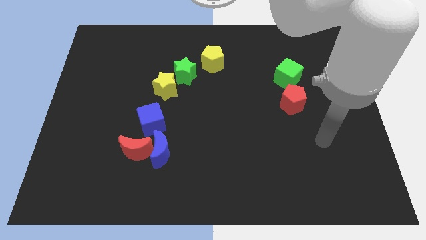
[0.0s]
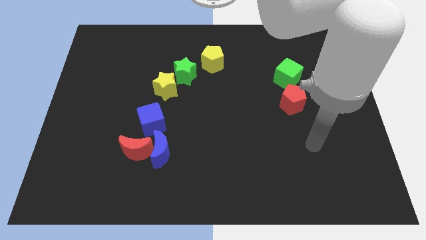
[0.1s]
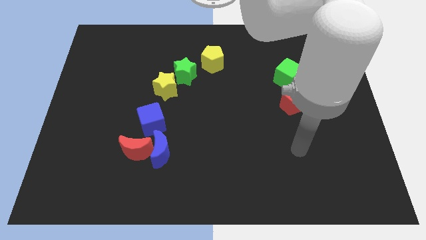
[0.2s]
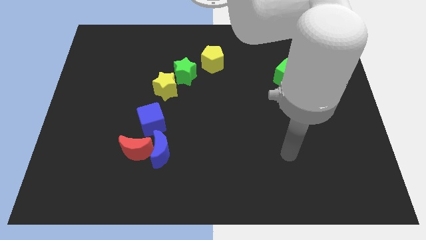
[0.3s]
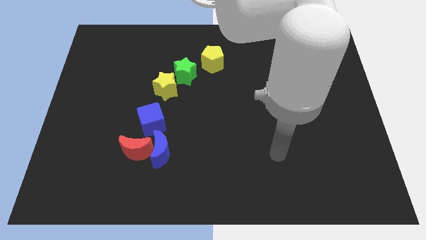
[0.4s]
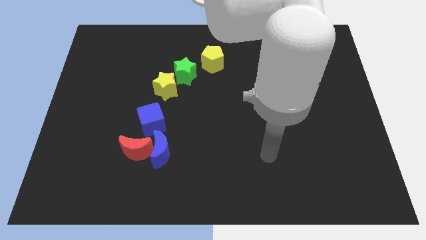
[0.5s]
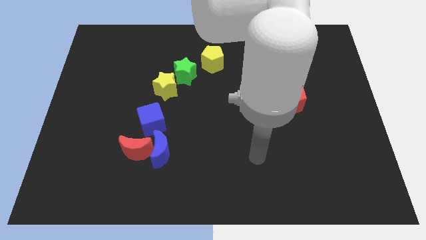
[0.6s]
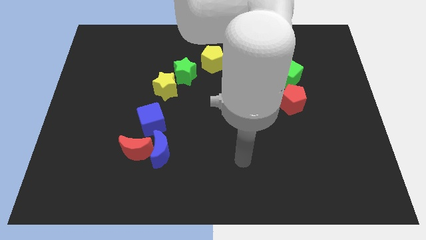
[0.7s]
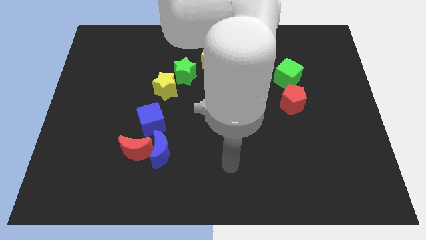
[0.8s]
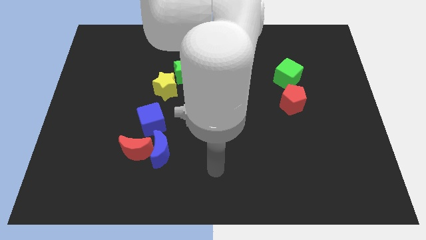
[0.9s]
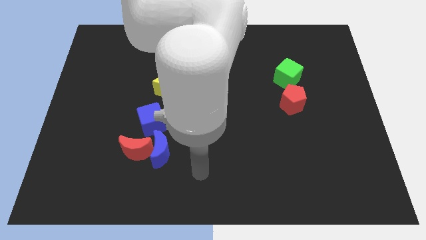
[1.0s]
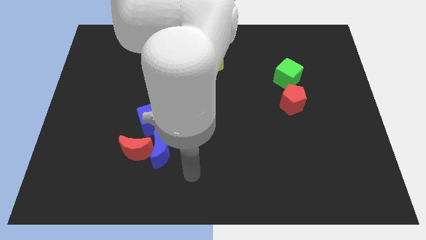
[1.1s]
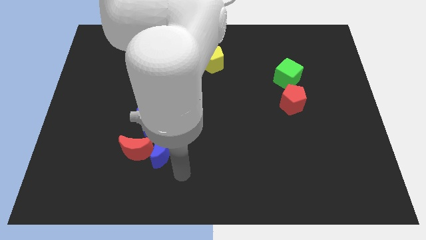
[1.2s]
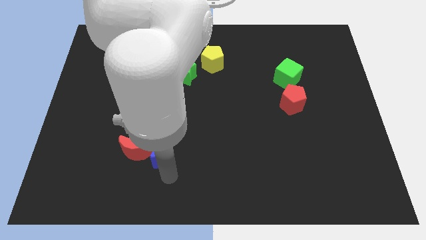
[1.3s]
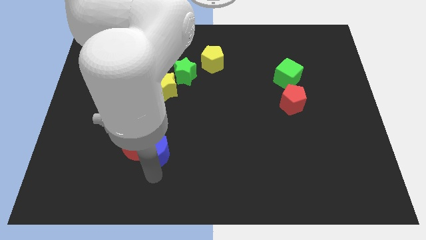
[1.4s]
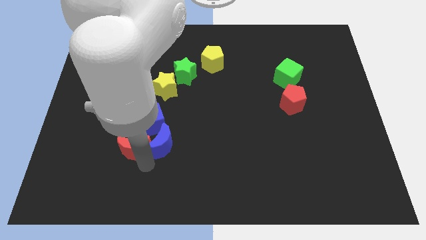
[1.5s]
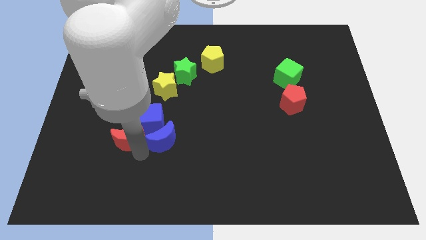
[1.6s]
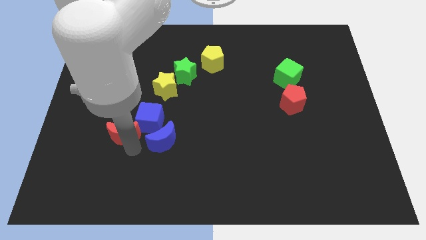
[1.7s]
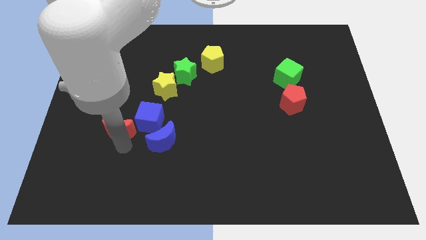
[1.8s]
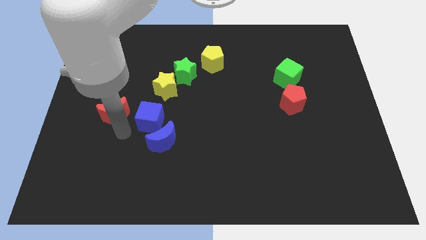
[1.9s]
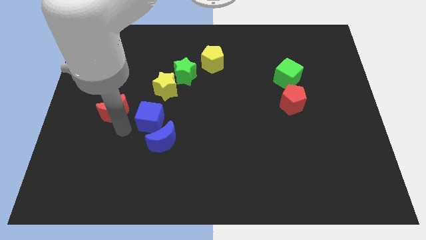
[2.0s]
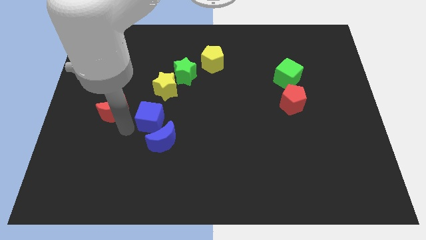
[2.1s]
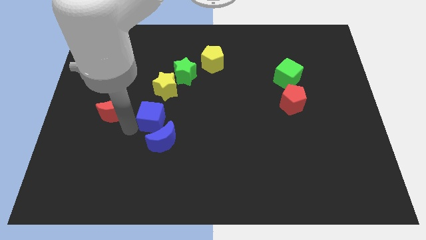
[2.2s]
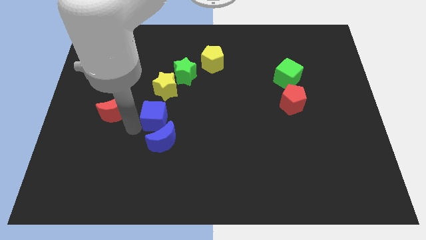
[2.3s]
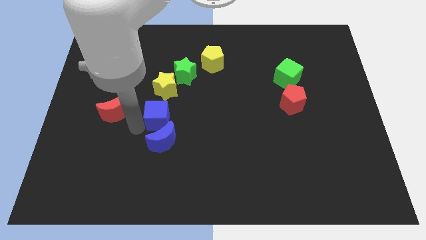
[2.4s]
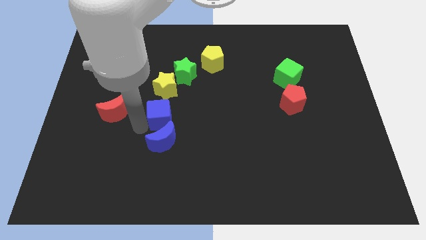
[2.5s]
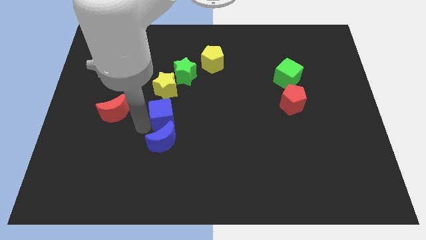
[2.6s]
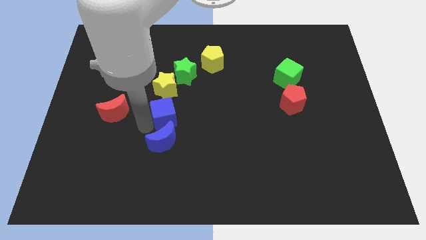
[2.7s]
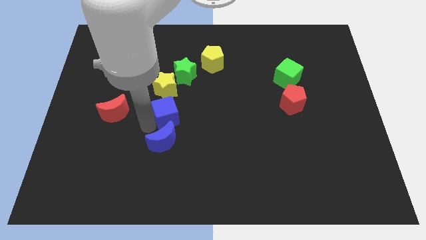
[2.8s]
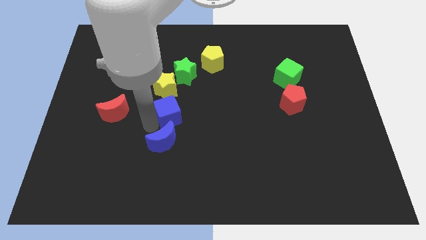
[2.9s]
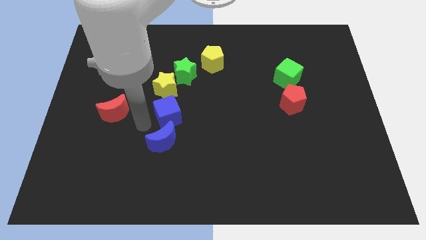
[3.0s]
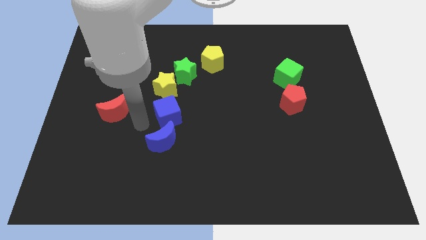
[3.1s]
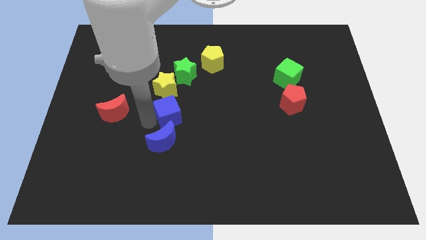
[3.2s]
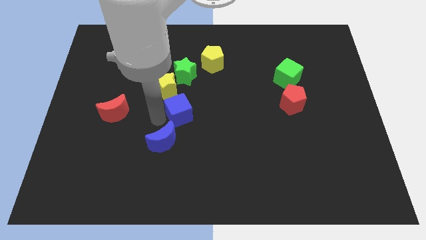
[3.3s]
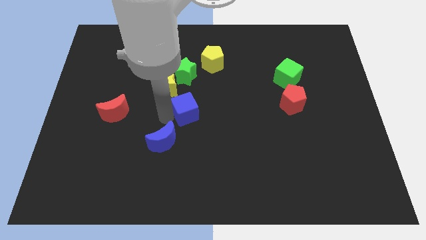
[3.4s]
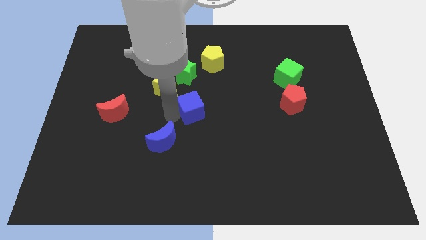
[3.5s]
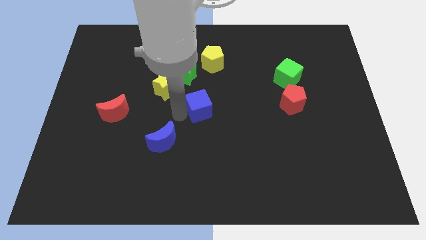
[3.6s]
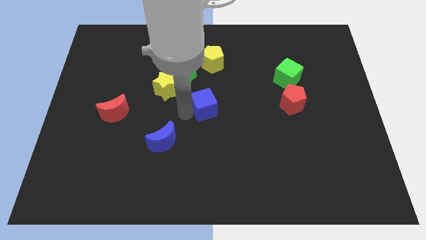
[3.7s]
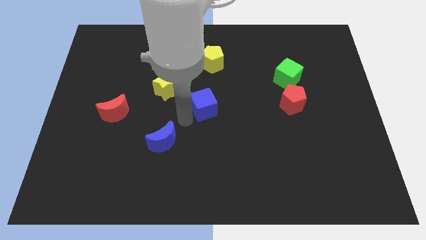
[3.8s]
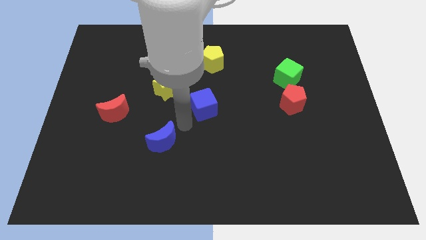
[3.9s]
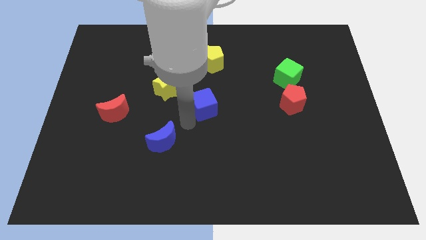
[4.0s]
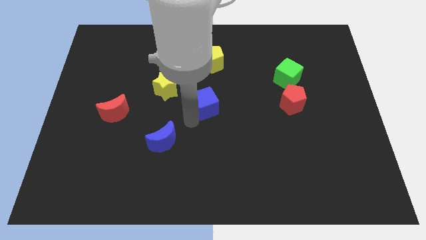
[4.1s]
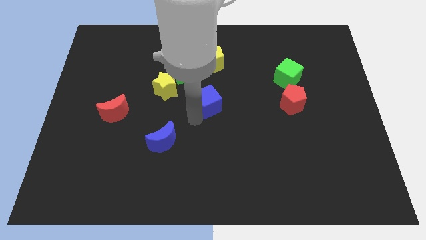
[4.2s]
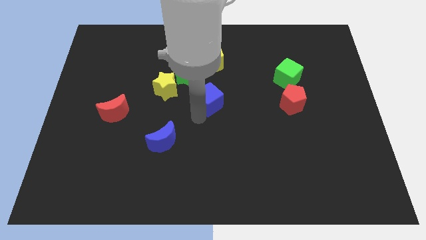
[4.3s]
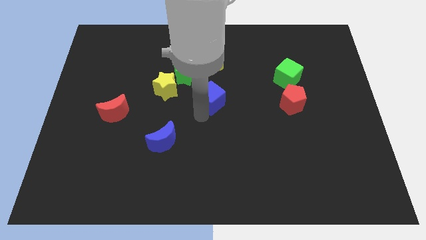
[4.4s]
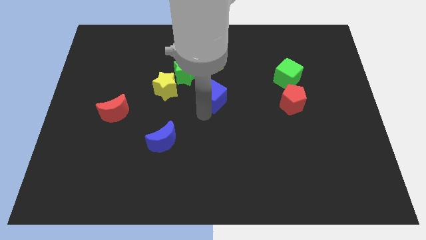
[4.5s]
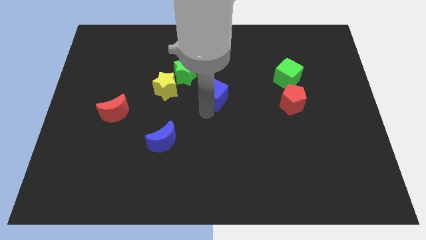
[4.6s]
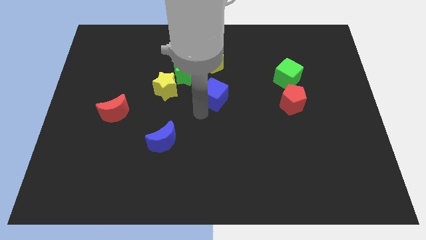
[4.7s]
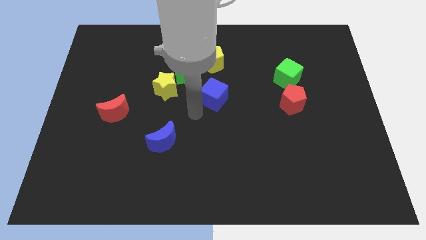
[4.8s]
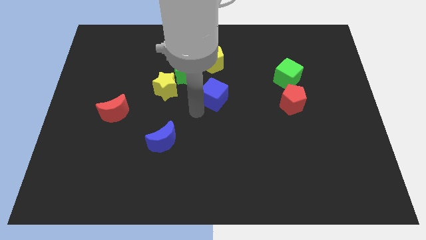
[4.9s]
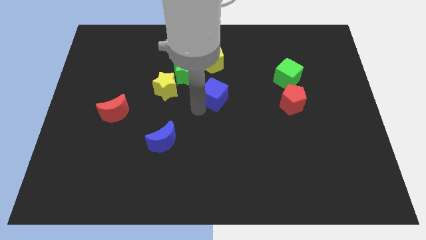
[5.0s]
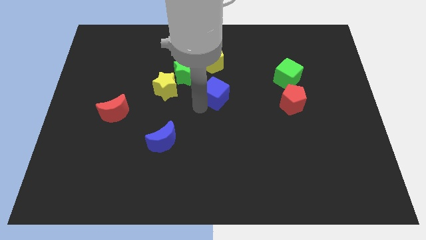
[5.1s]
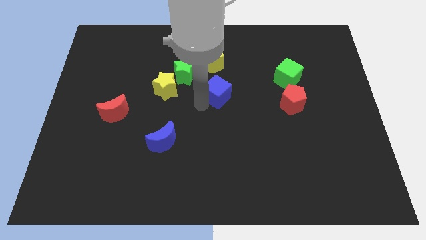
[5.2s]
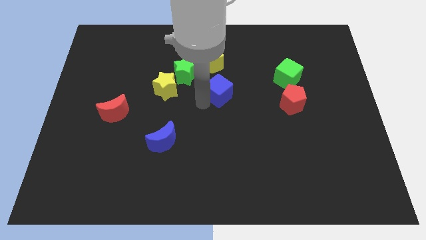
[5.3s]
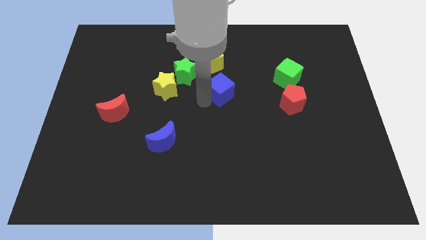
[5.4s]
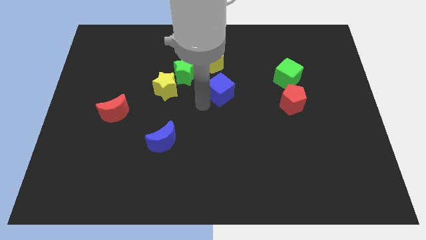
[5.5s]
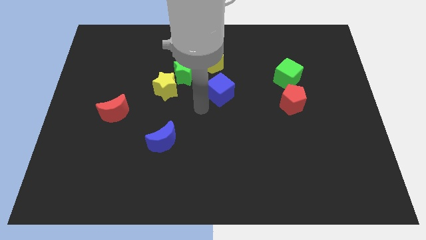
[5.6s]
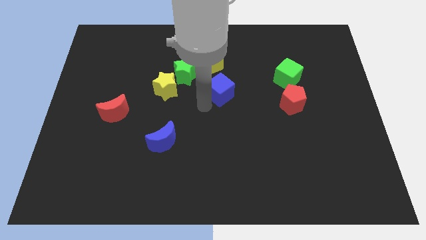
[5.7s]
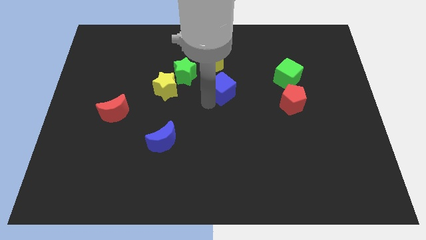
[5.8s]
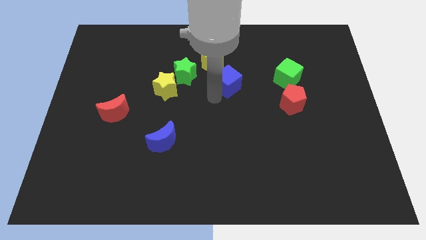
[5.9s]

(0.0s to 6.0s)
move the blue cube to the left of the green cube
